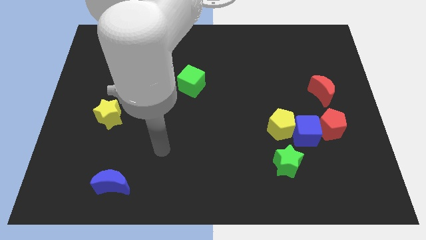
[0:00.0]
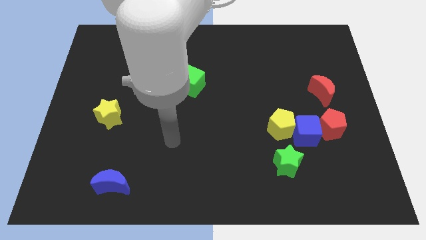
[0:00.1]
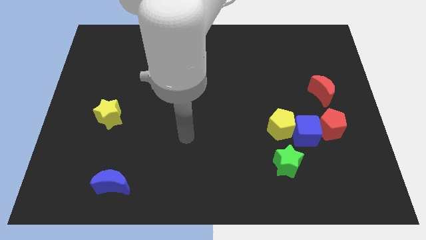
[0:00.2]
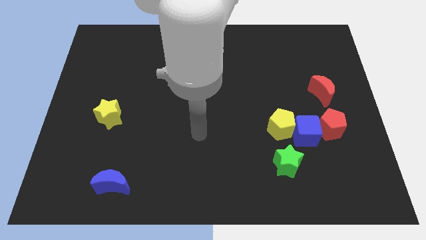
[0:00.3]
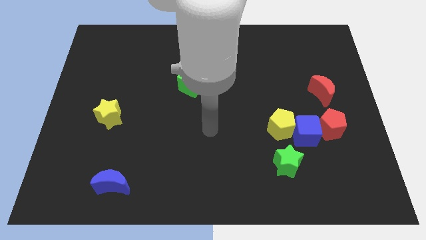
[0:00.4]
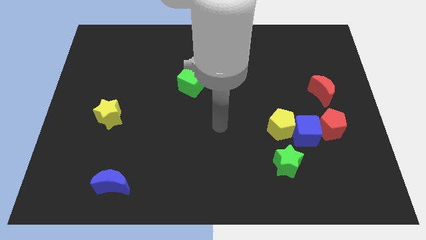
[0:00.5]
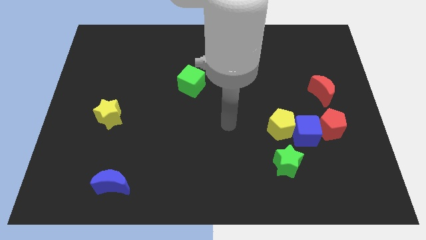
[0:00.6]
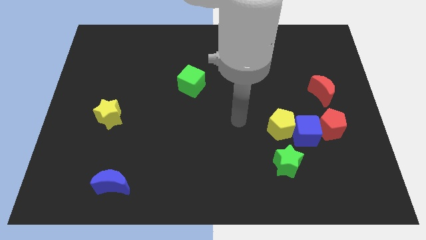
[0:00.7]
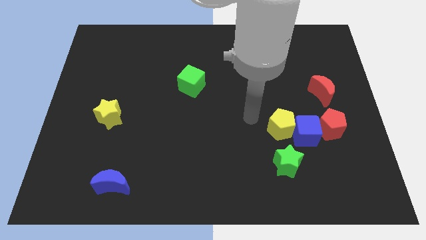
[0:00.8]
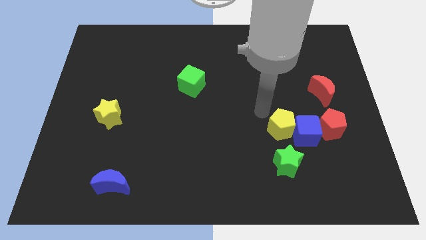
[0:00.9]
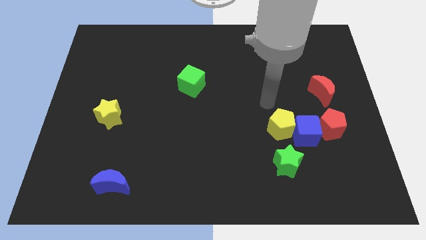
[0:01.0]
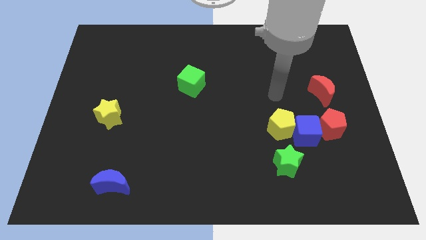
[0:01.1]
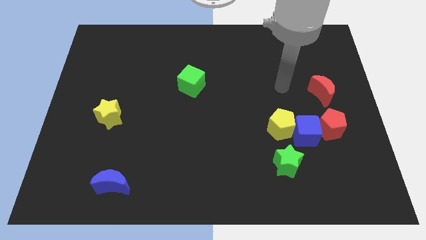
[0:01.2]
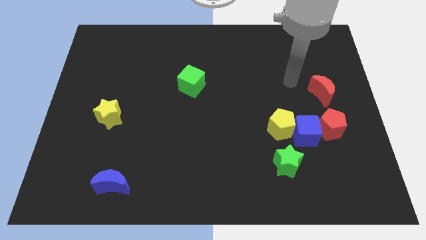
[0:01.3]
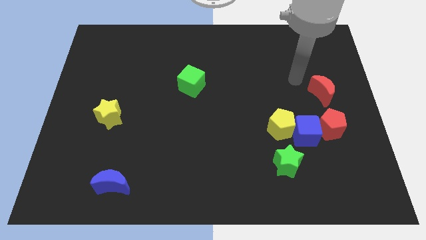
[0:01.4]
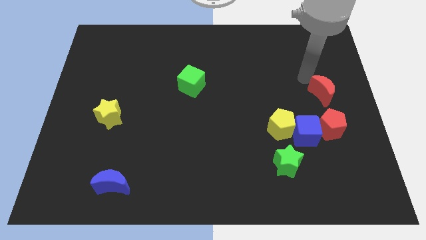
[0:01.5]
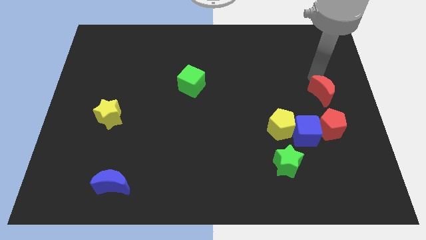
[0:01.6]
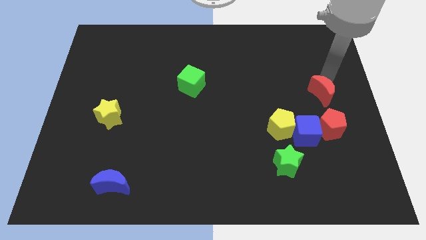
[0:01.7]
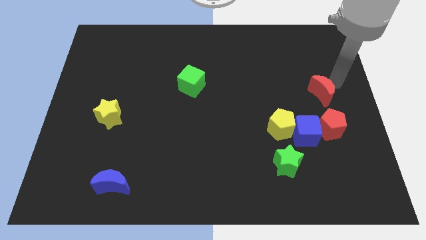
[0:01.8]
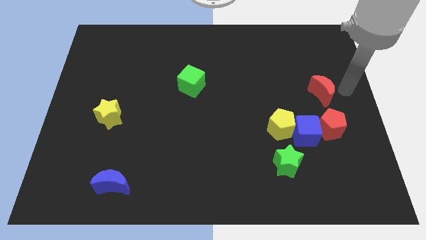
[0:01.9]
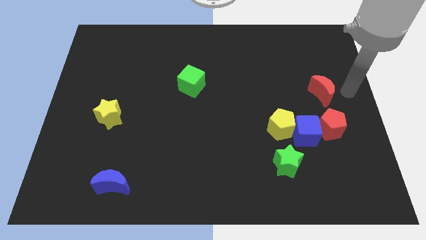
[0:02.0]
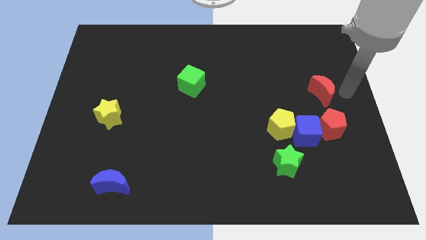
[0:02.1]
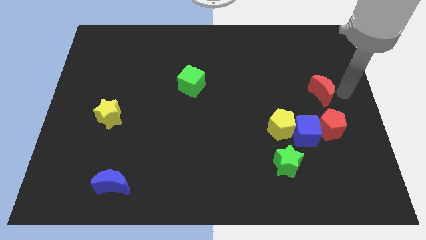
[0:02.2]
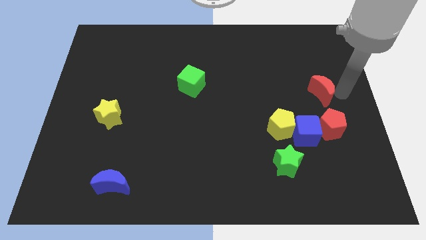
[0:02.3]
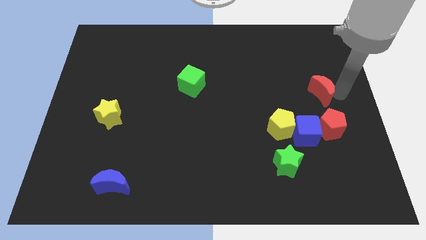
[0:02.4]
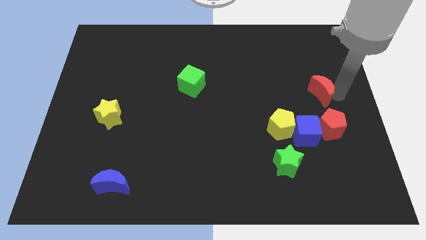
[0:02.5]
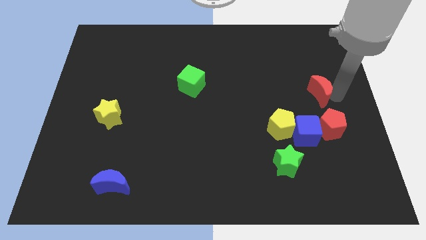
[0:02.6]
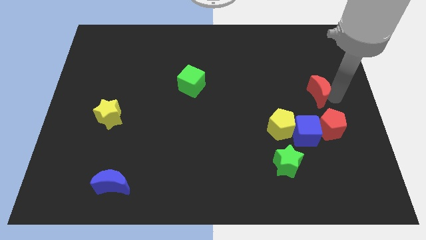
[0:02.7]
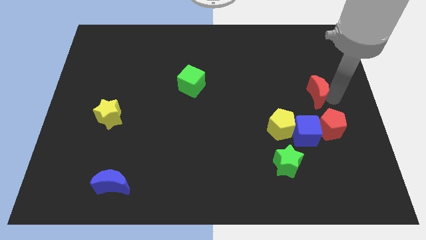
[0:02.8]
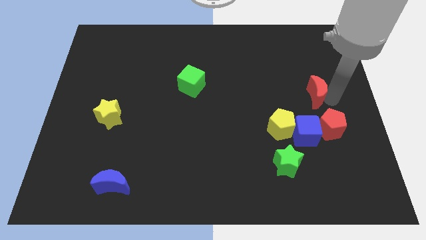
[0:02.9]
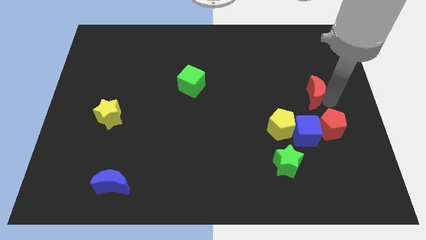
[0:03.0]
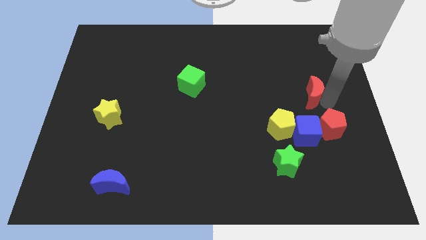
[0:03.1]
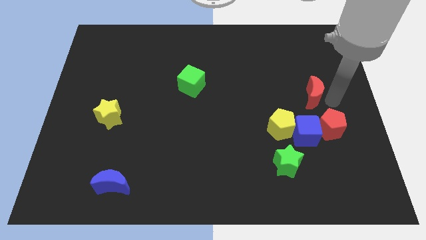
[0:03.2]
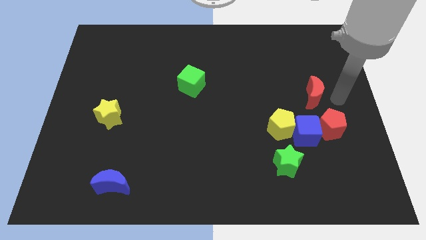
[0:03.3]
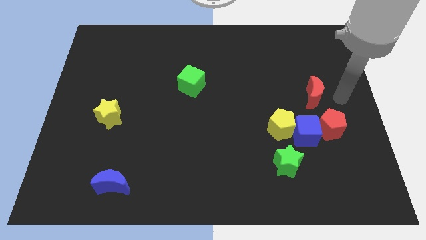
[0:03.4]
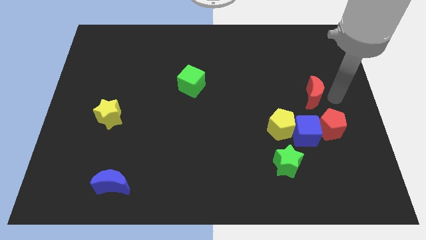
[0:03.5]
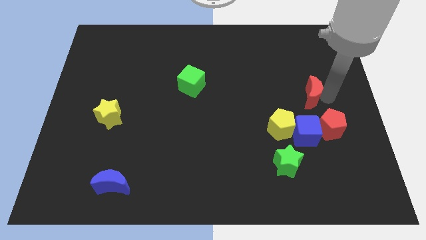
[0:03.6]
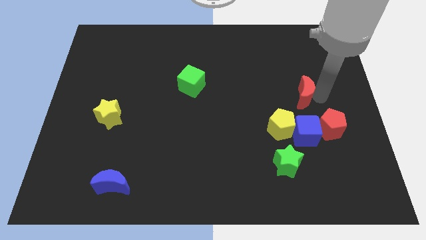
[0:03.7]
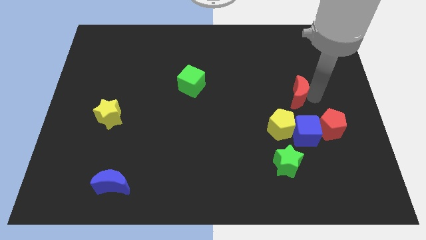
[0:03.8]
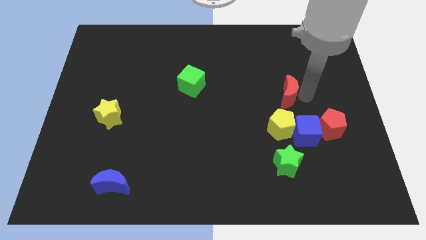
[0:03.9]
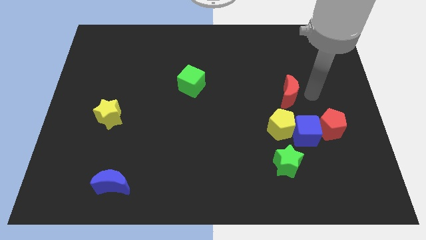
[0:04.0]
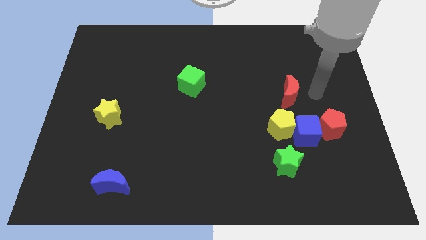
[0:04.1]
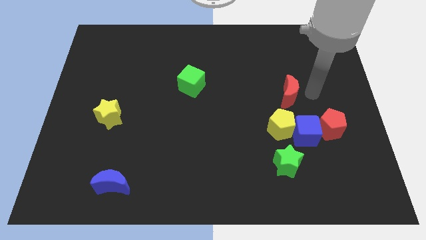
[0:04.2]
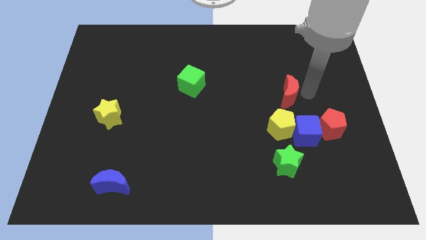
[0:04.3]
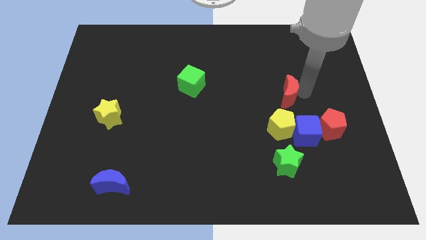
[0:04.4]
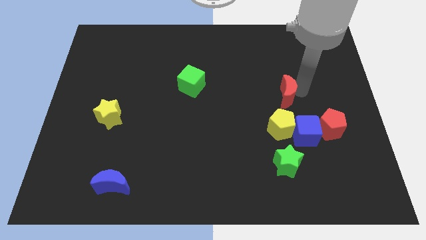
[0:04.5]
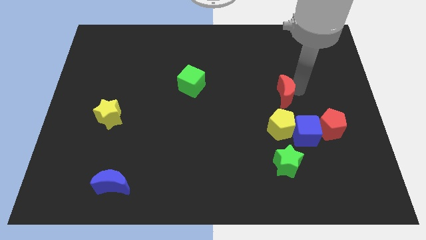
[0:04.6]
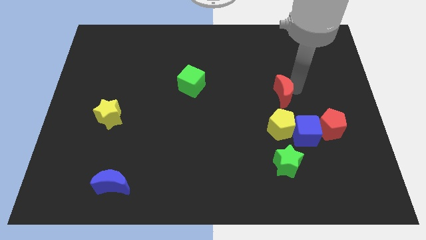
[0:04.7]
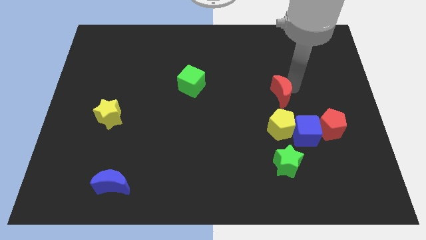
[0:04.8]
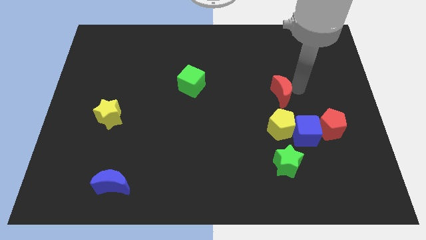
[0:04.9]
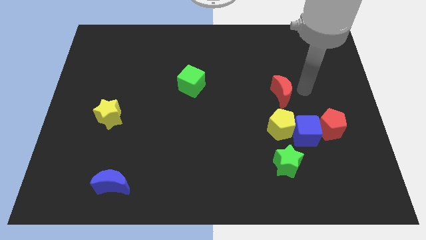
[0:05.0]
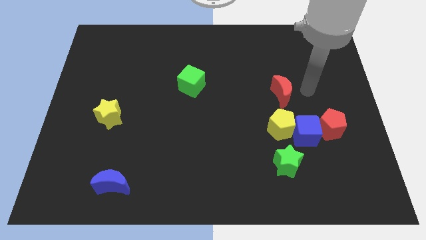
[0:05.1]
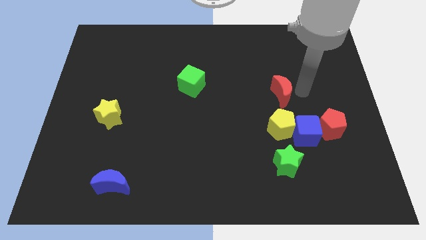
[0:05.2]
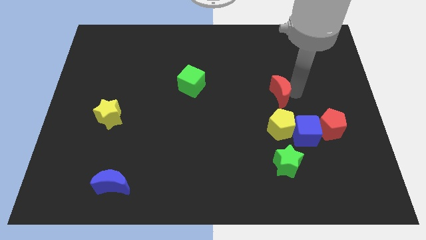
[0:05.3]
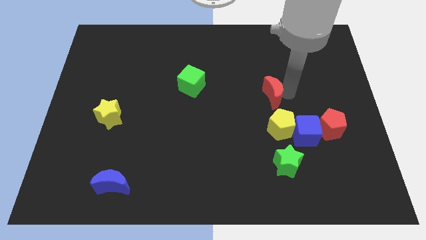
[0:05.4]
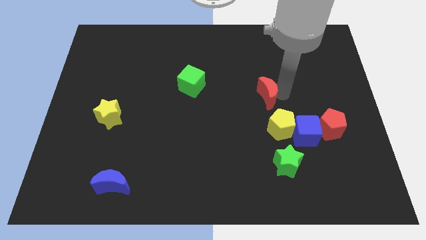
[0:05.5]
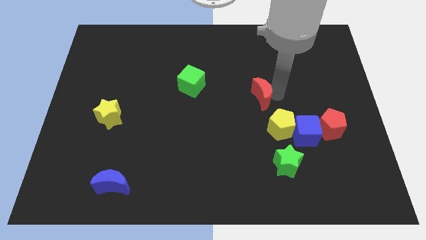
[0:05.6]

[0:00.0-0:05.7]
move the red moon to the middle of the board
